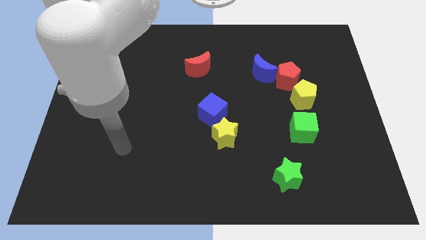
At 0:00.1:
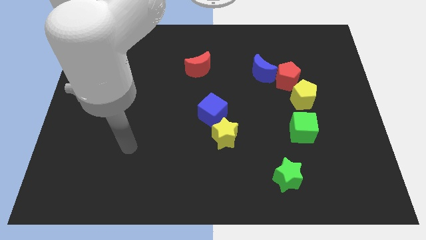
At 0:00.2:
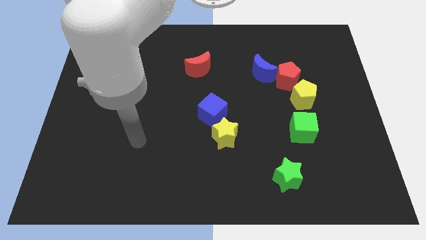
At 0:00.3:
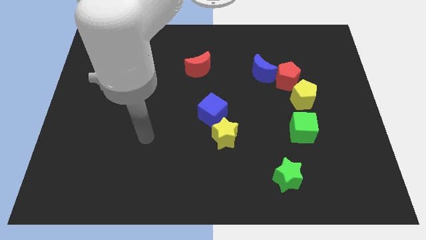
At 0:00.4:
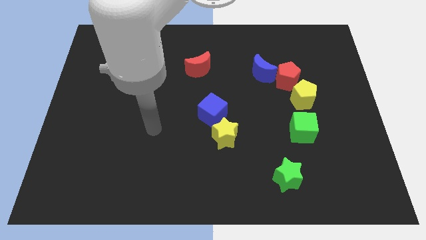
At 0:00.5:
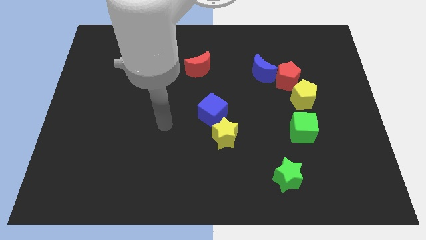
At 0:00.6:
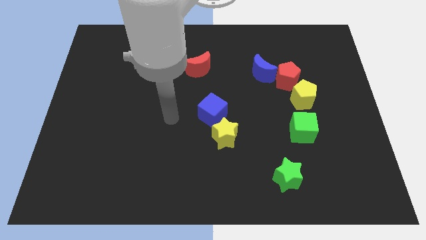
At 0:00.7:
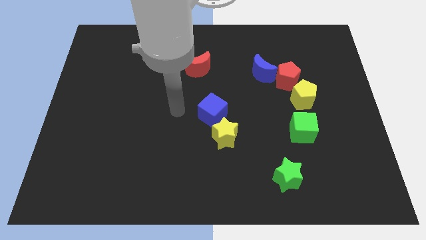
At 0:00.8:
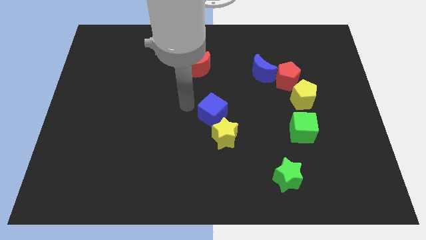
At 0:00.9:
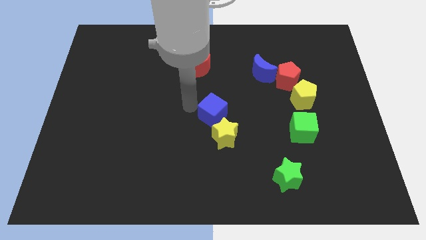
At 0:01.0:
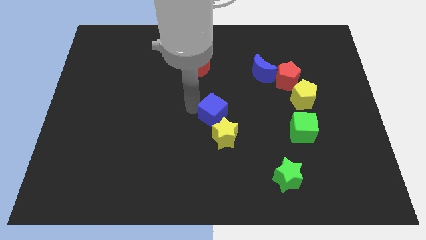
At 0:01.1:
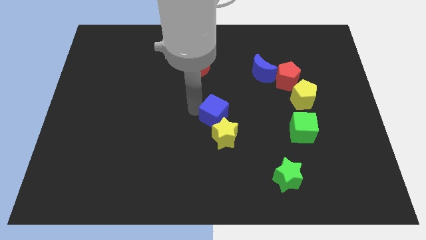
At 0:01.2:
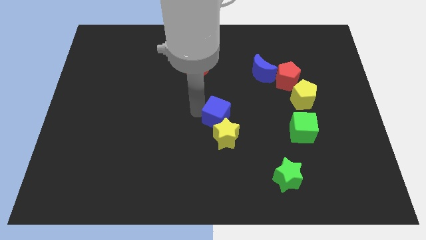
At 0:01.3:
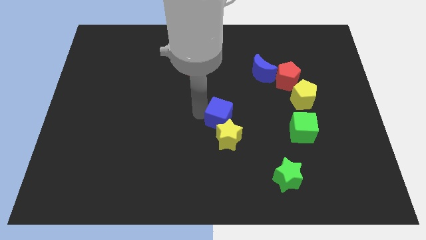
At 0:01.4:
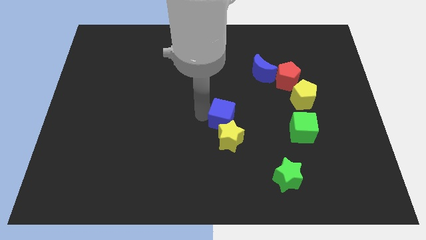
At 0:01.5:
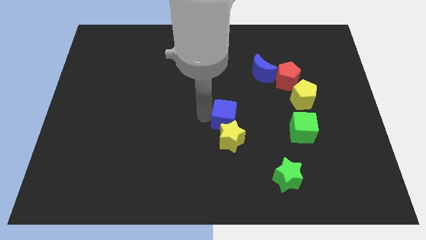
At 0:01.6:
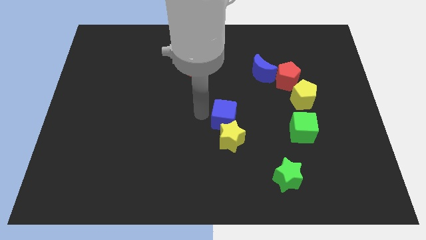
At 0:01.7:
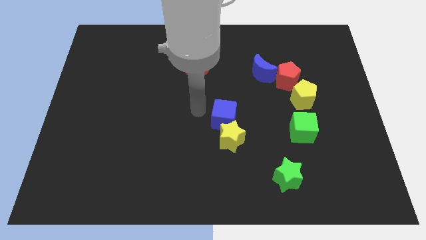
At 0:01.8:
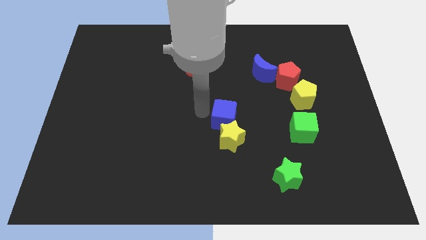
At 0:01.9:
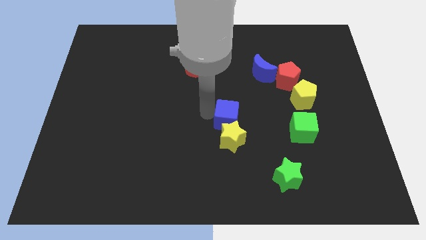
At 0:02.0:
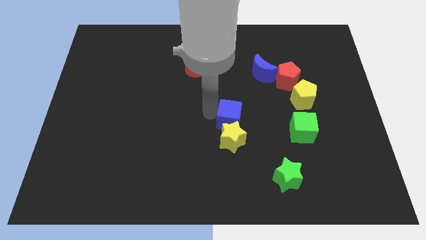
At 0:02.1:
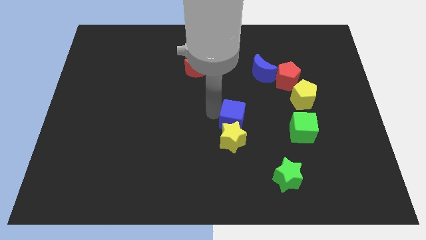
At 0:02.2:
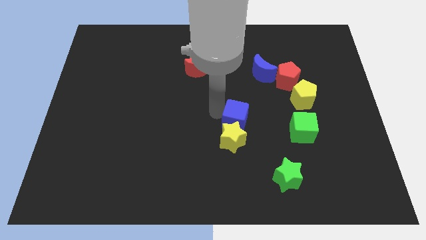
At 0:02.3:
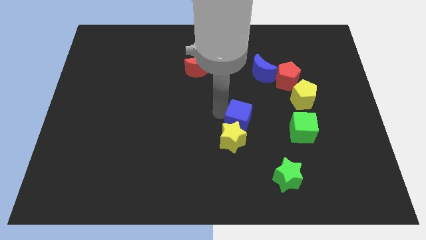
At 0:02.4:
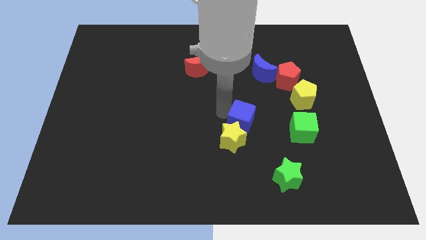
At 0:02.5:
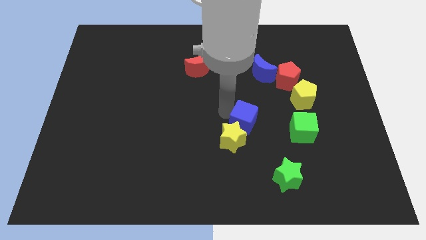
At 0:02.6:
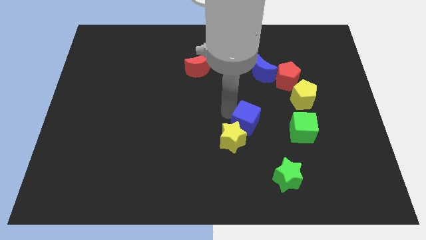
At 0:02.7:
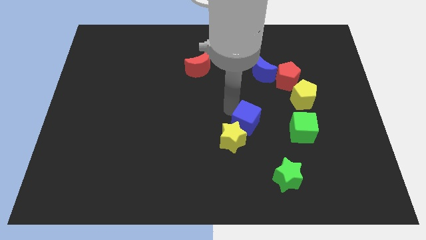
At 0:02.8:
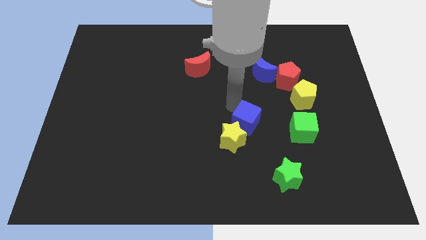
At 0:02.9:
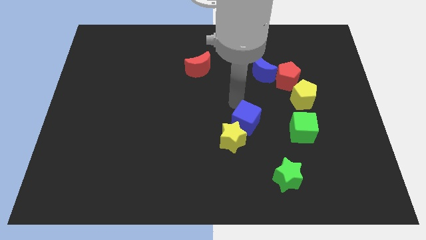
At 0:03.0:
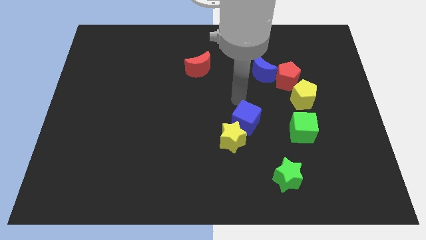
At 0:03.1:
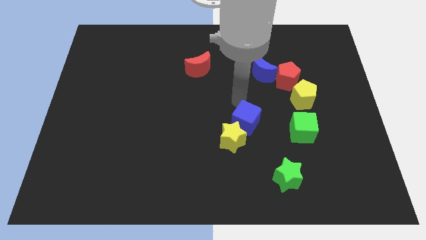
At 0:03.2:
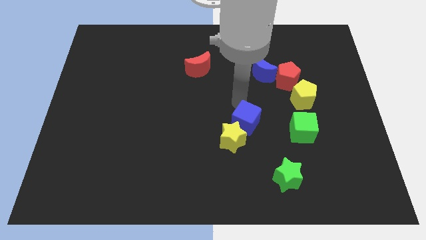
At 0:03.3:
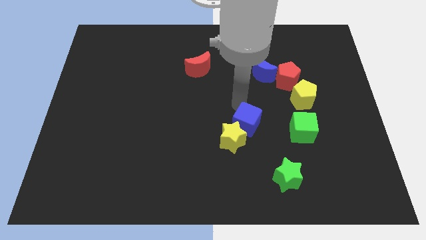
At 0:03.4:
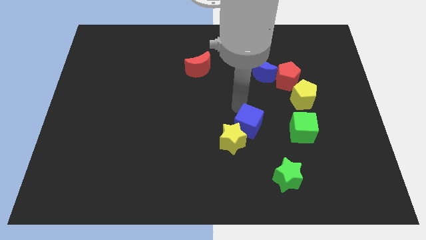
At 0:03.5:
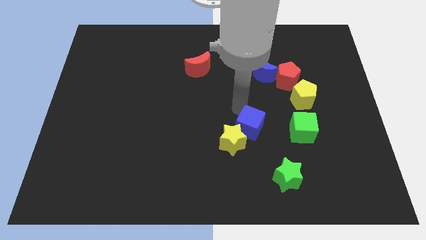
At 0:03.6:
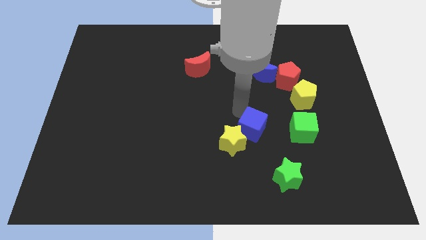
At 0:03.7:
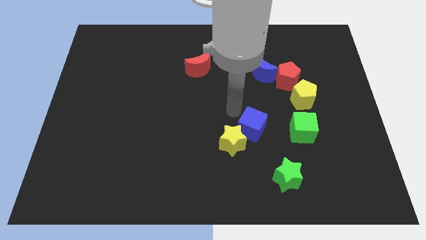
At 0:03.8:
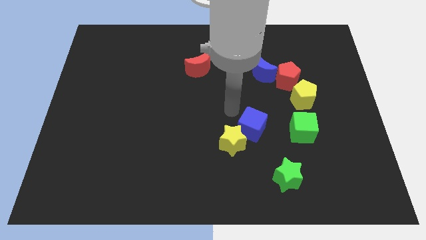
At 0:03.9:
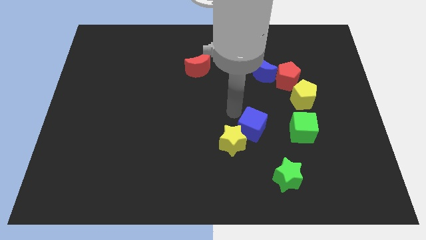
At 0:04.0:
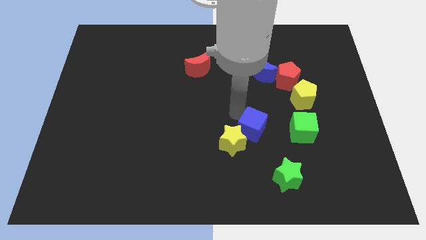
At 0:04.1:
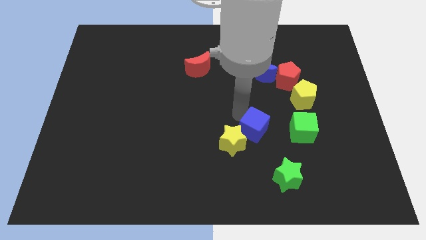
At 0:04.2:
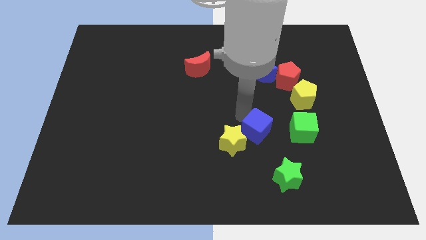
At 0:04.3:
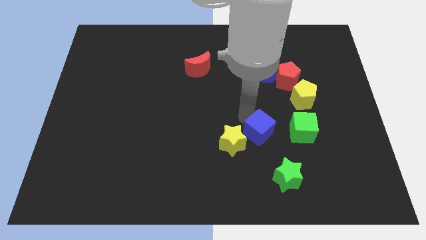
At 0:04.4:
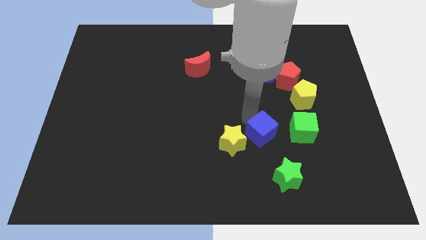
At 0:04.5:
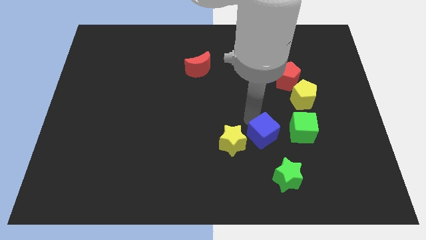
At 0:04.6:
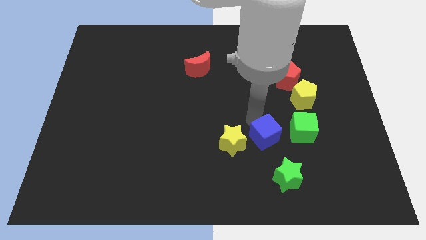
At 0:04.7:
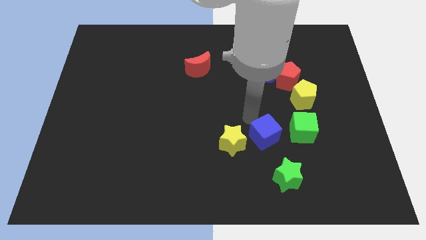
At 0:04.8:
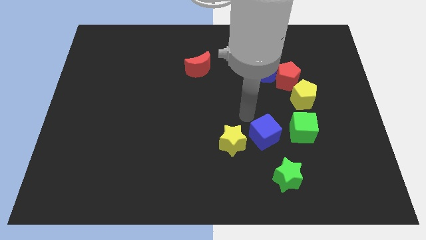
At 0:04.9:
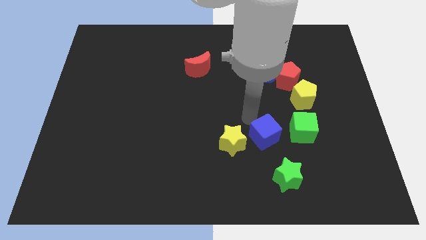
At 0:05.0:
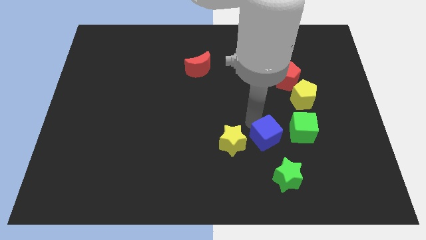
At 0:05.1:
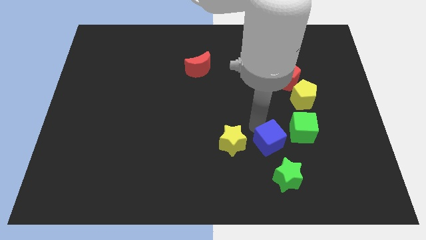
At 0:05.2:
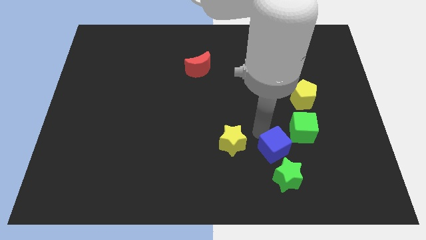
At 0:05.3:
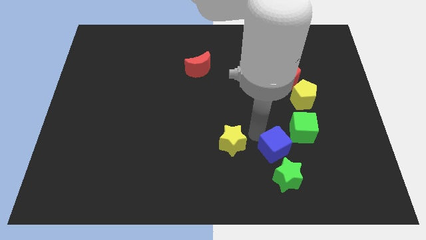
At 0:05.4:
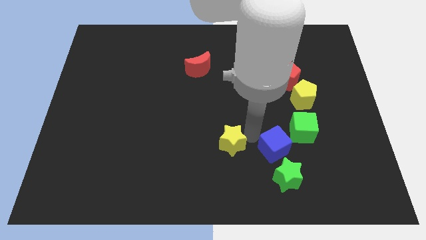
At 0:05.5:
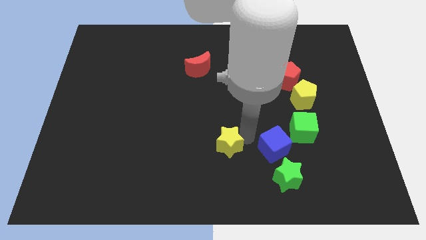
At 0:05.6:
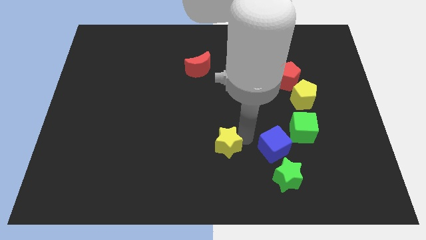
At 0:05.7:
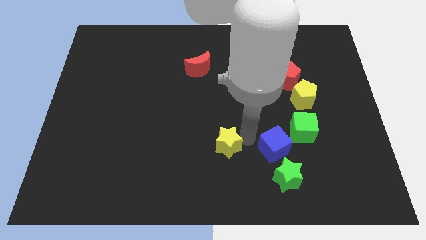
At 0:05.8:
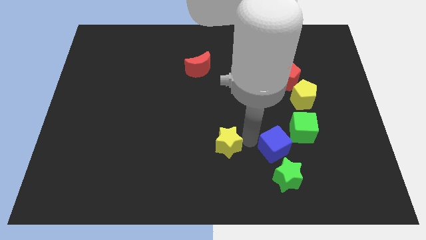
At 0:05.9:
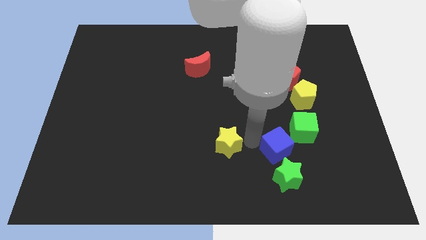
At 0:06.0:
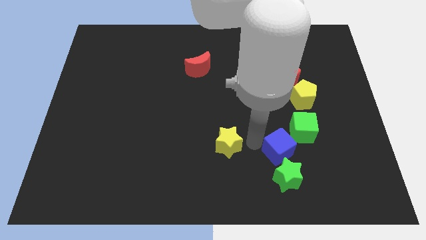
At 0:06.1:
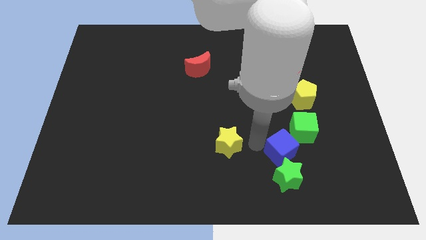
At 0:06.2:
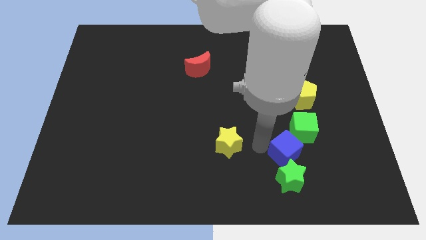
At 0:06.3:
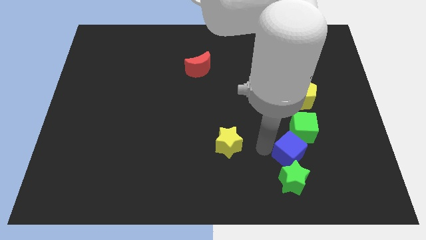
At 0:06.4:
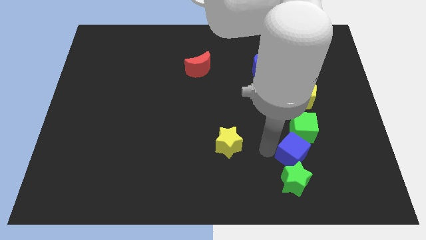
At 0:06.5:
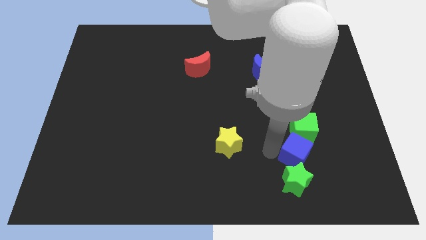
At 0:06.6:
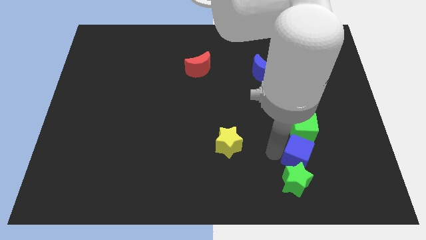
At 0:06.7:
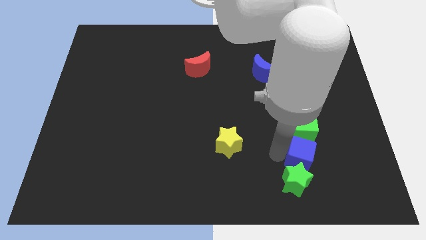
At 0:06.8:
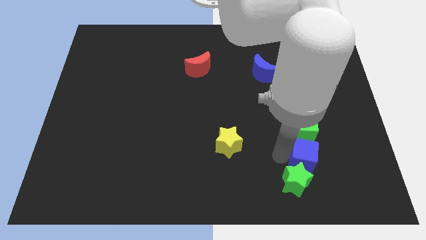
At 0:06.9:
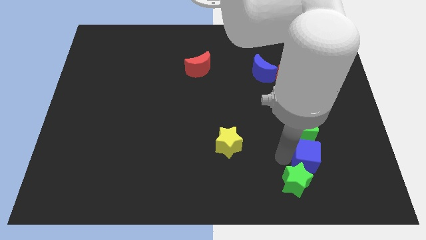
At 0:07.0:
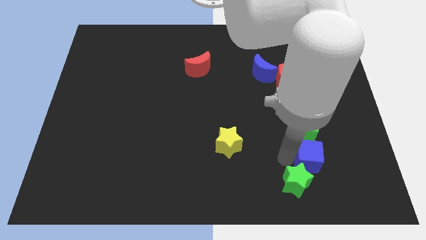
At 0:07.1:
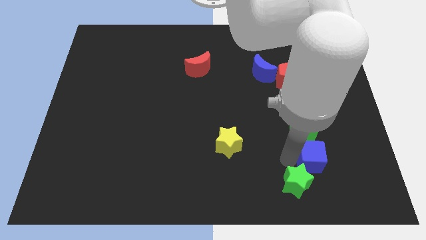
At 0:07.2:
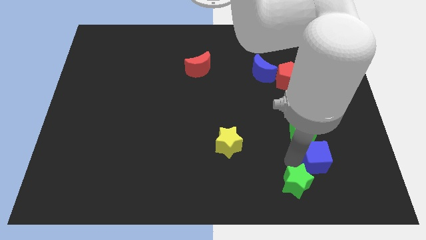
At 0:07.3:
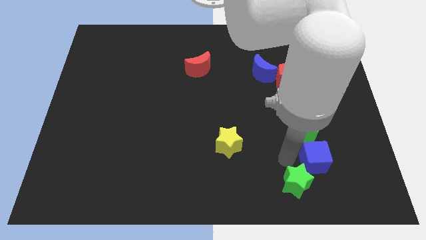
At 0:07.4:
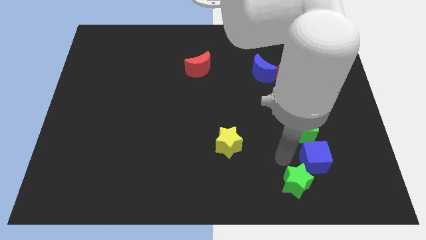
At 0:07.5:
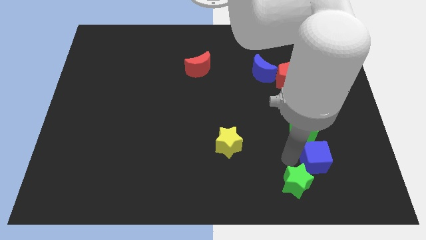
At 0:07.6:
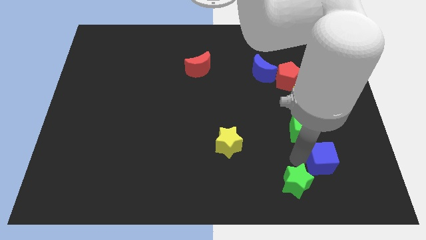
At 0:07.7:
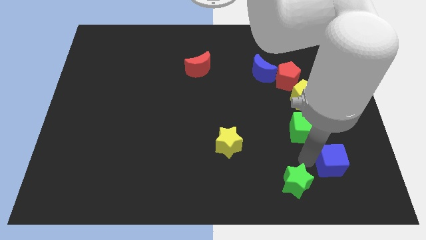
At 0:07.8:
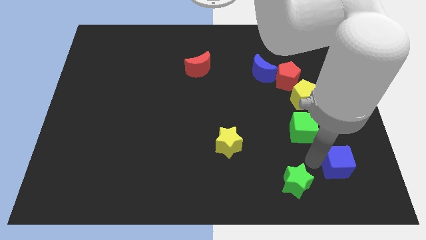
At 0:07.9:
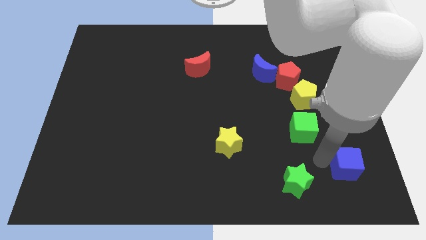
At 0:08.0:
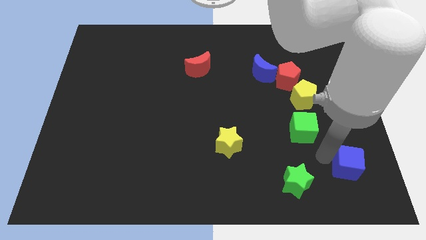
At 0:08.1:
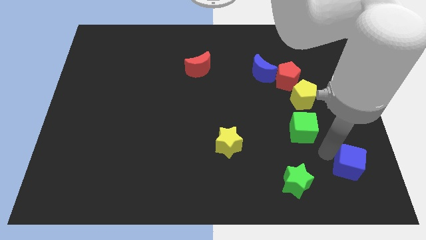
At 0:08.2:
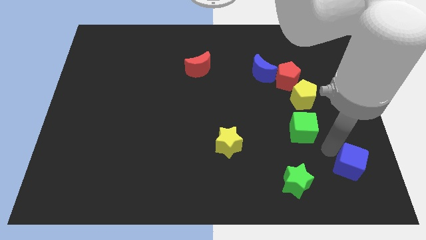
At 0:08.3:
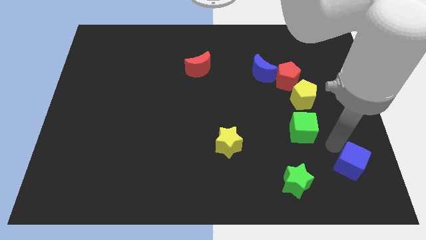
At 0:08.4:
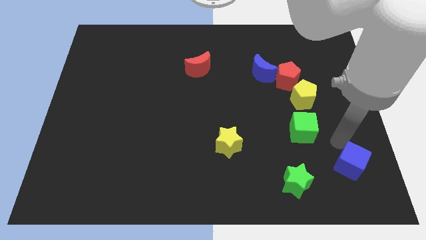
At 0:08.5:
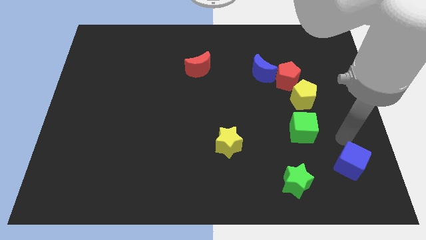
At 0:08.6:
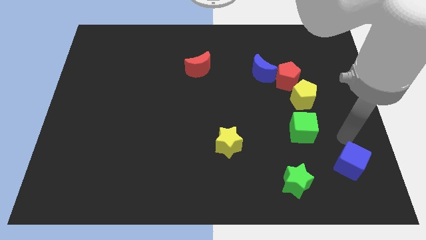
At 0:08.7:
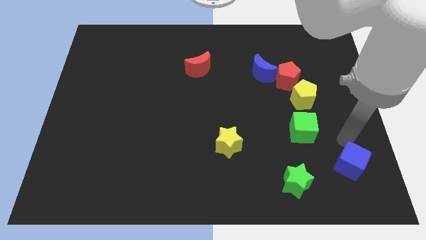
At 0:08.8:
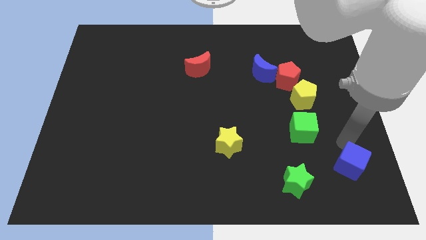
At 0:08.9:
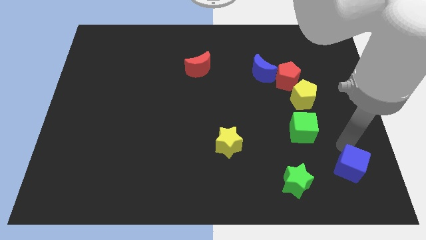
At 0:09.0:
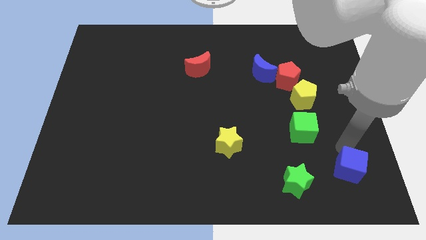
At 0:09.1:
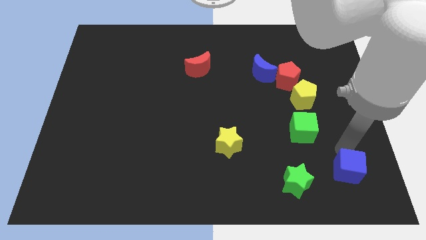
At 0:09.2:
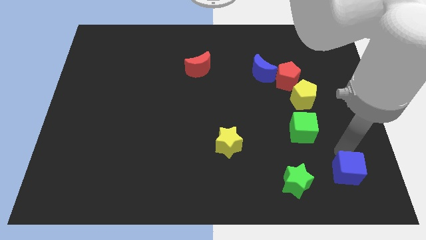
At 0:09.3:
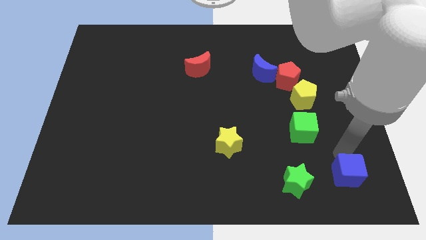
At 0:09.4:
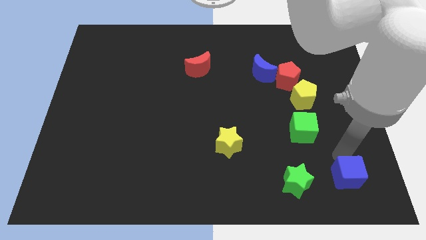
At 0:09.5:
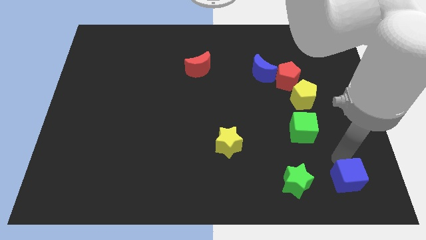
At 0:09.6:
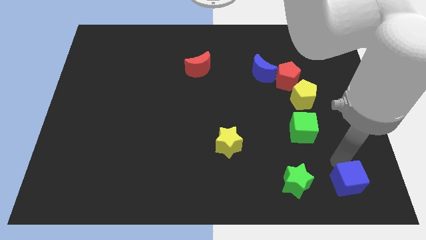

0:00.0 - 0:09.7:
push the blue cube to the lower right corner
